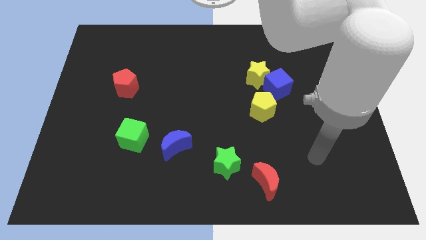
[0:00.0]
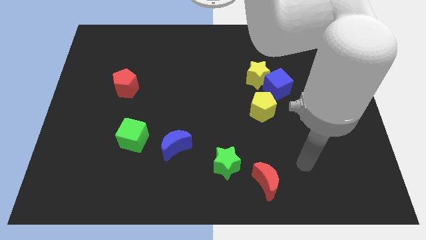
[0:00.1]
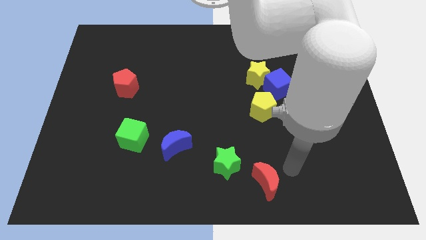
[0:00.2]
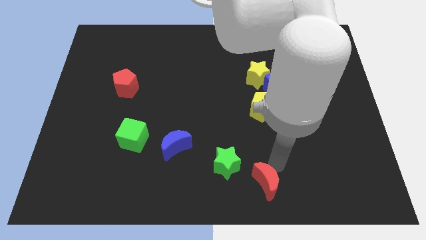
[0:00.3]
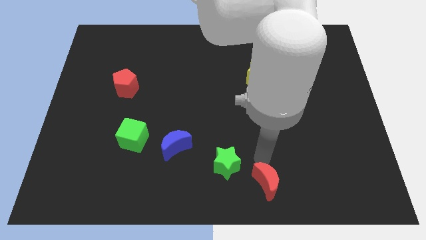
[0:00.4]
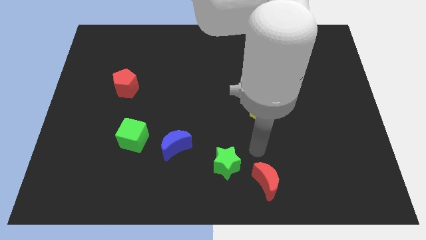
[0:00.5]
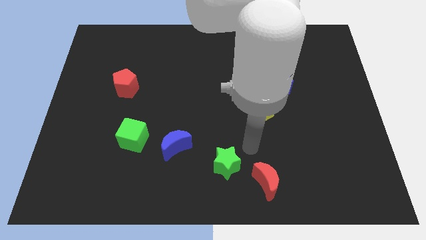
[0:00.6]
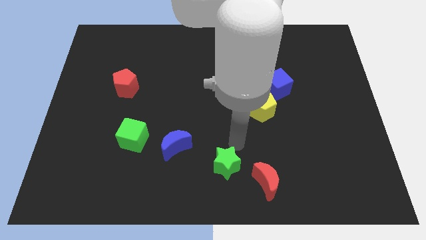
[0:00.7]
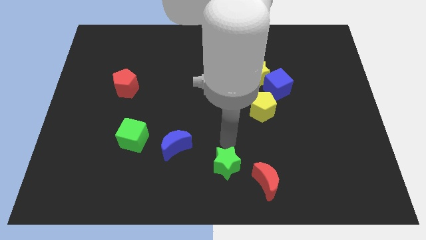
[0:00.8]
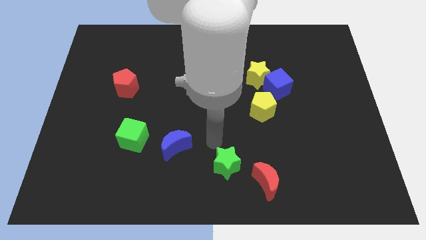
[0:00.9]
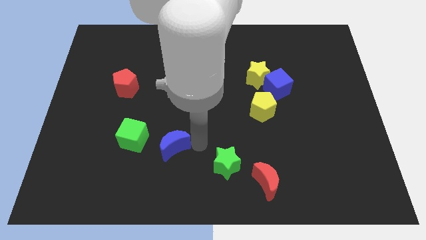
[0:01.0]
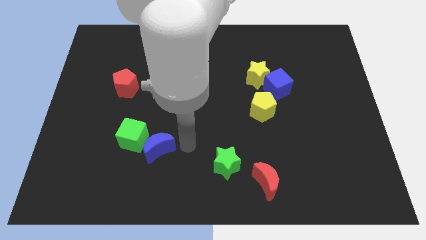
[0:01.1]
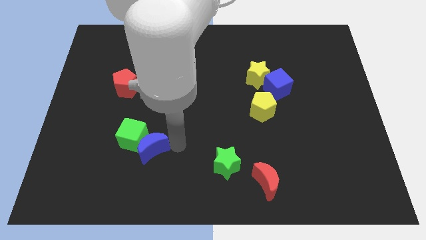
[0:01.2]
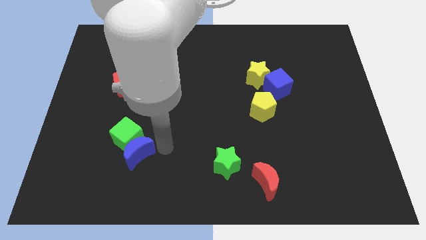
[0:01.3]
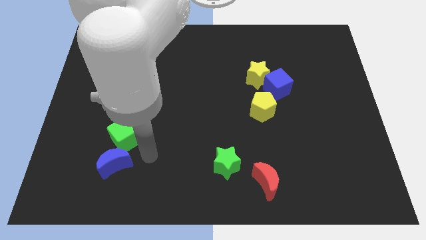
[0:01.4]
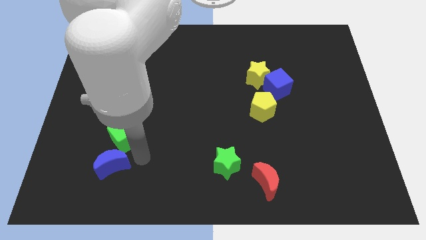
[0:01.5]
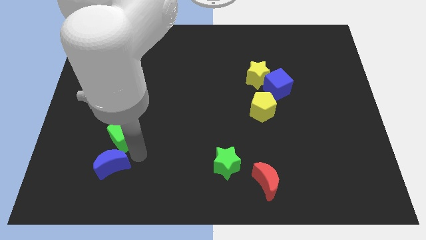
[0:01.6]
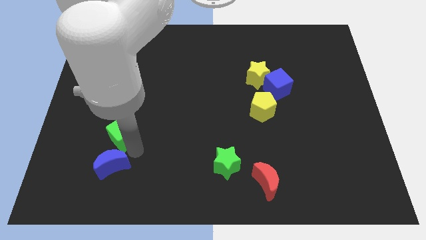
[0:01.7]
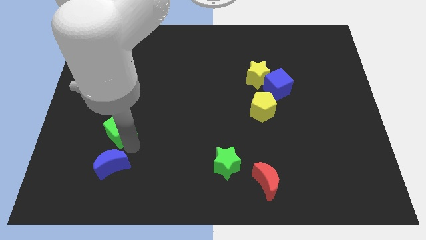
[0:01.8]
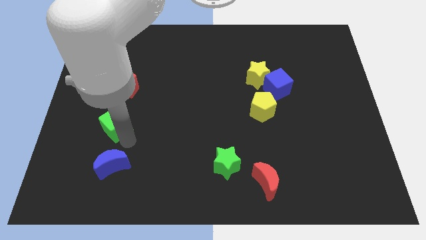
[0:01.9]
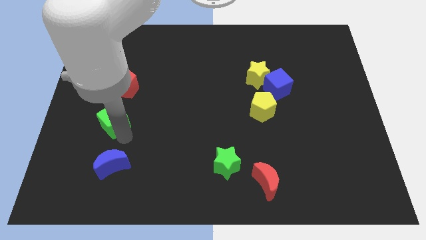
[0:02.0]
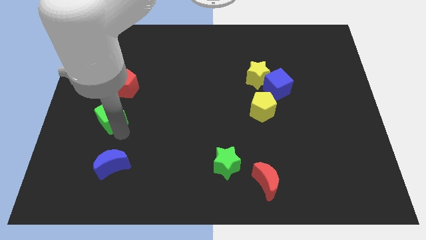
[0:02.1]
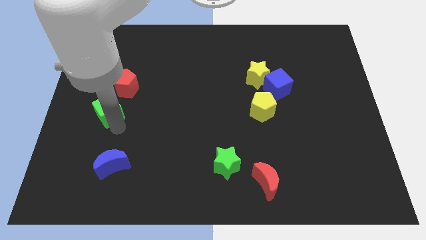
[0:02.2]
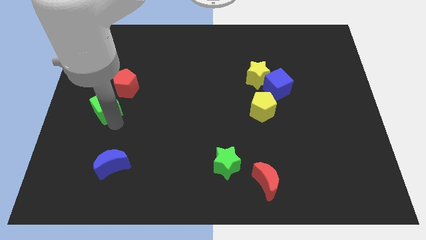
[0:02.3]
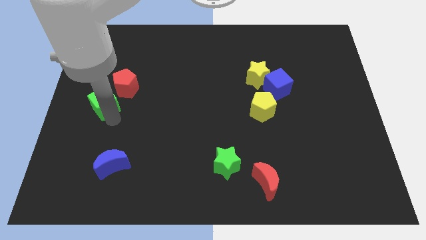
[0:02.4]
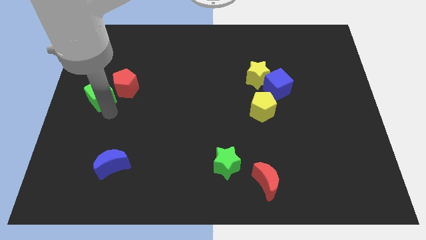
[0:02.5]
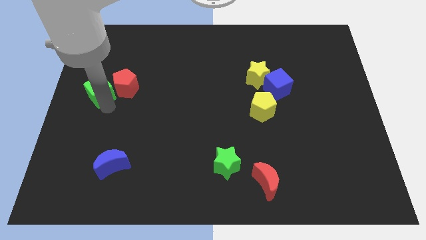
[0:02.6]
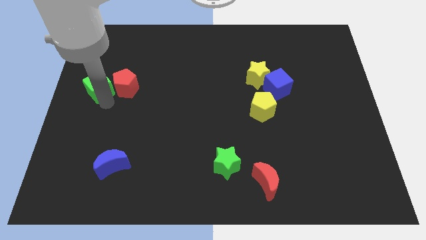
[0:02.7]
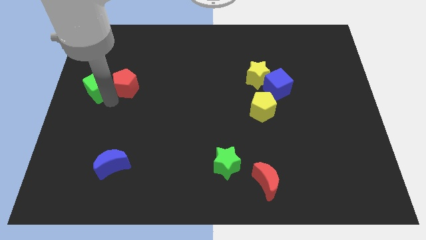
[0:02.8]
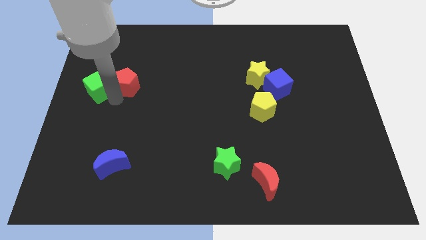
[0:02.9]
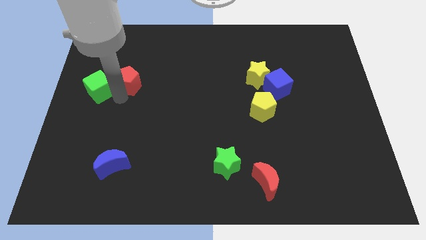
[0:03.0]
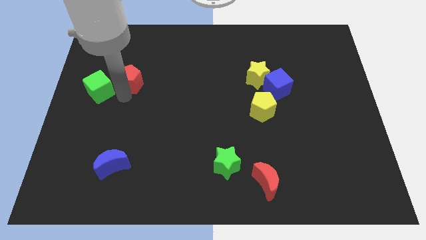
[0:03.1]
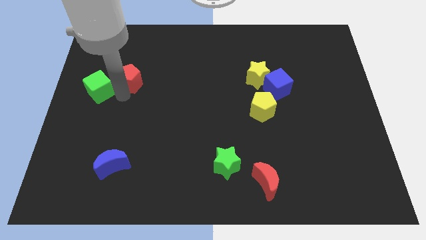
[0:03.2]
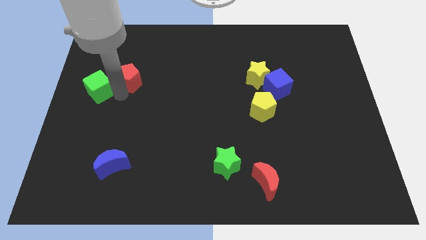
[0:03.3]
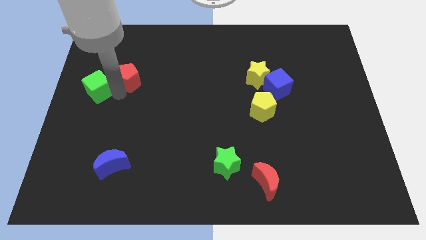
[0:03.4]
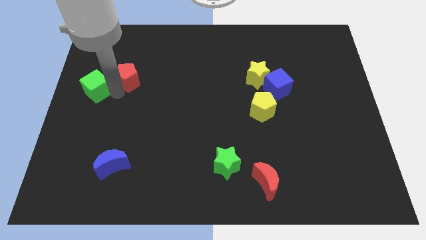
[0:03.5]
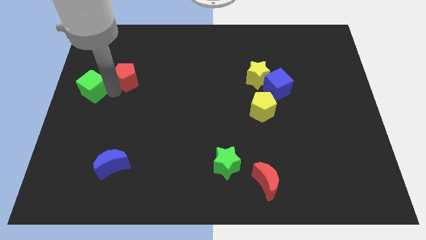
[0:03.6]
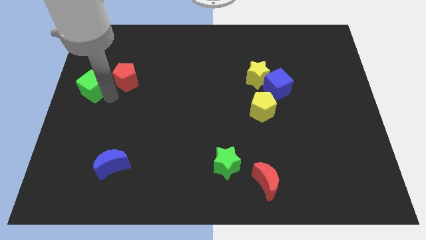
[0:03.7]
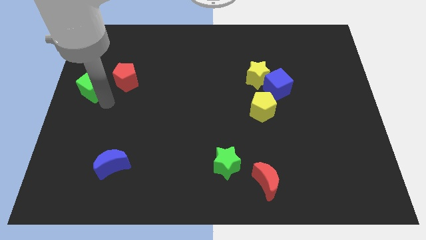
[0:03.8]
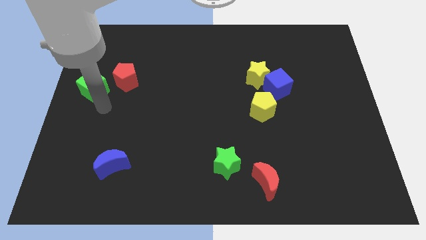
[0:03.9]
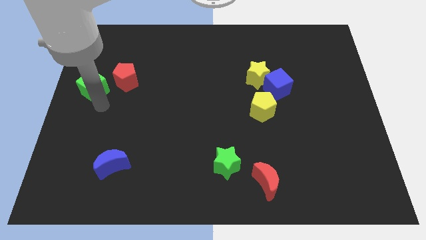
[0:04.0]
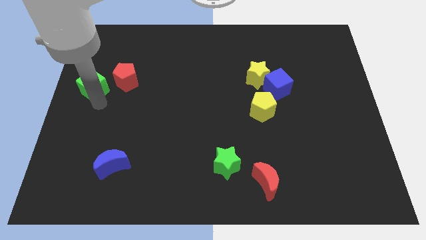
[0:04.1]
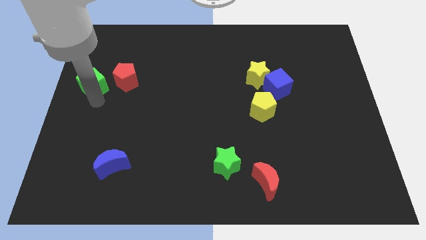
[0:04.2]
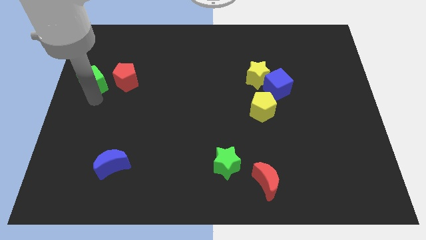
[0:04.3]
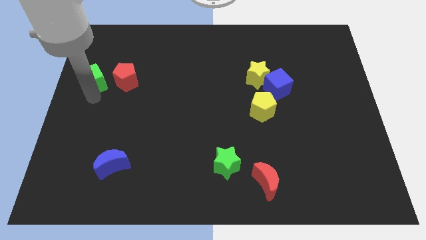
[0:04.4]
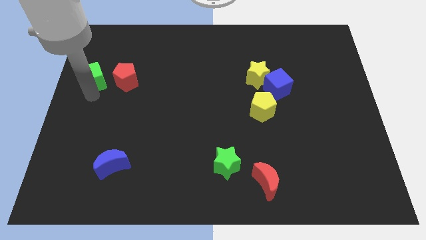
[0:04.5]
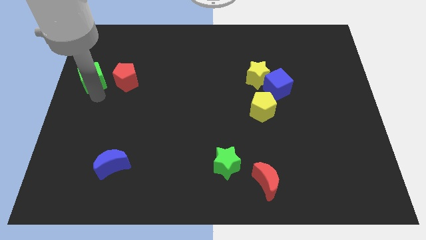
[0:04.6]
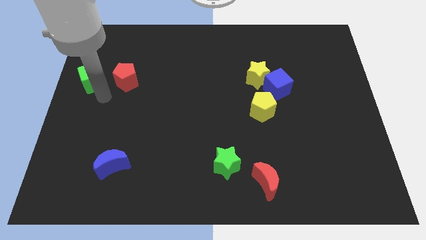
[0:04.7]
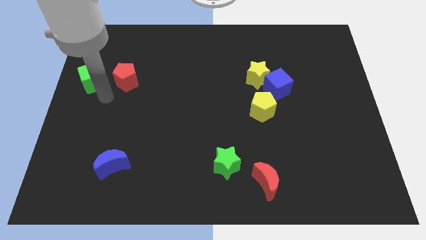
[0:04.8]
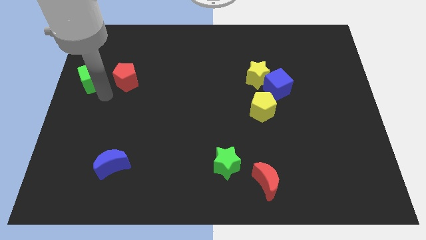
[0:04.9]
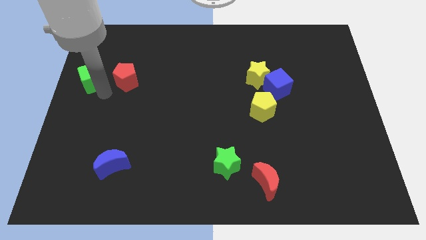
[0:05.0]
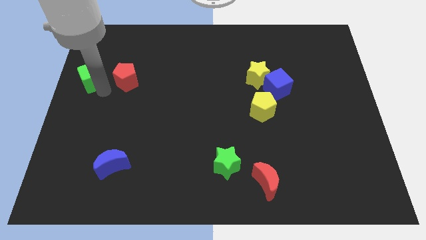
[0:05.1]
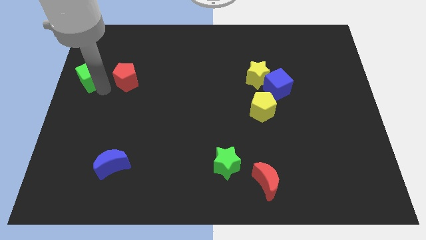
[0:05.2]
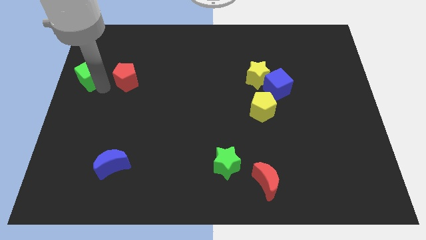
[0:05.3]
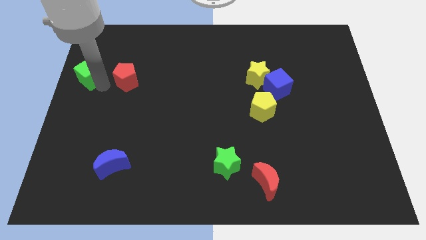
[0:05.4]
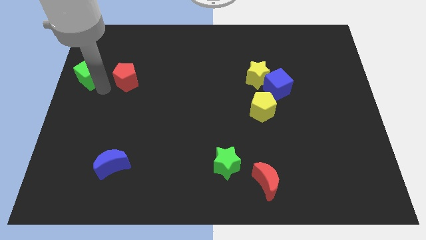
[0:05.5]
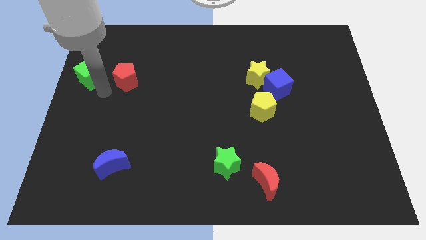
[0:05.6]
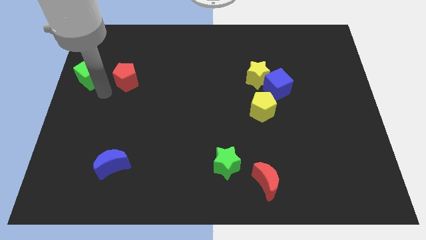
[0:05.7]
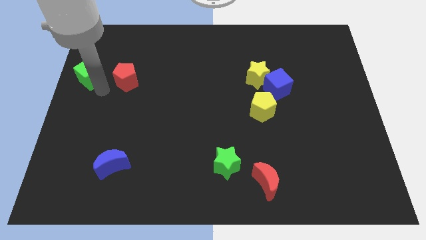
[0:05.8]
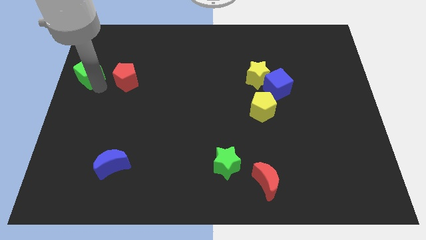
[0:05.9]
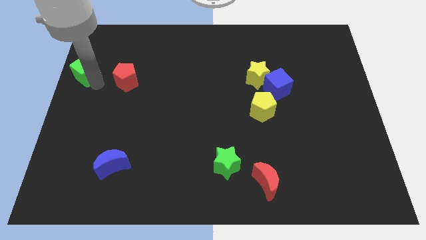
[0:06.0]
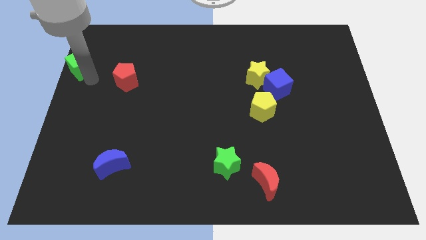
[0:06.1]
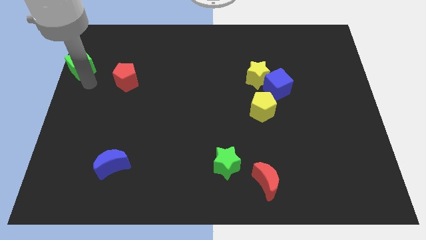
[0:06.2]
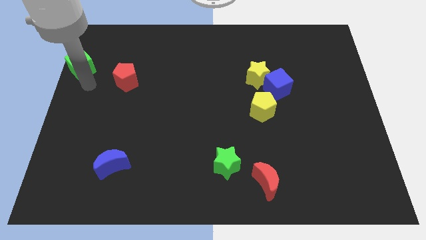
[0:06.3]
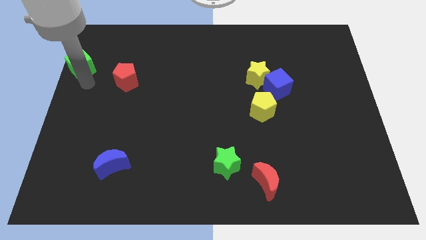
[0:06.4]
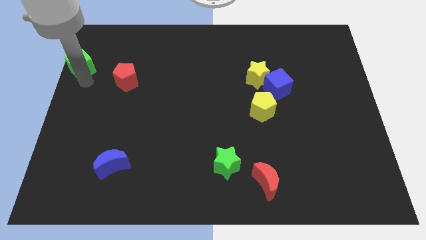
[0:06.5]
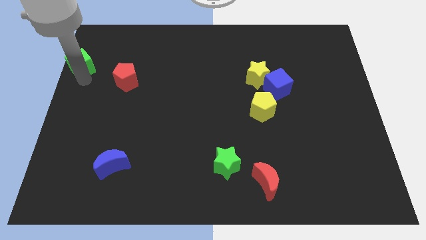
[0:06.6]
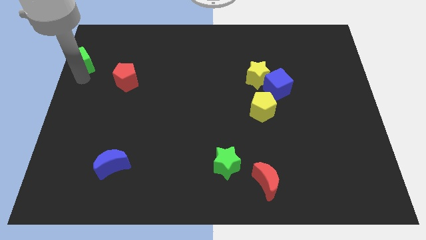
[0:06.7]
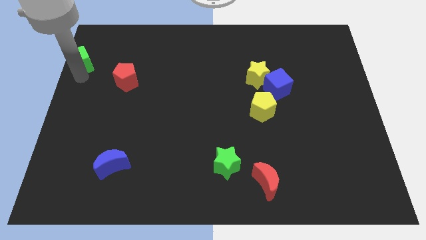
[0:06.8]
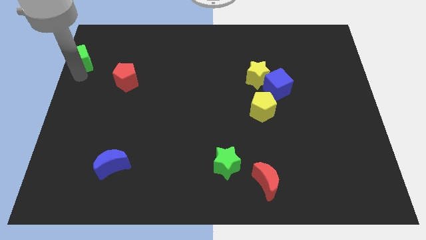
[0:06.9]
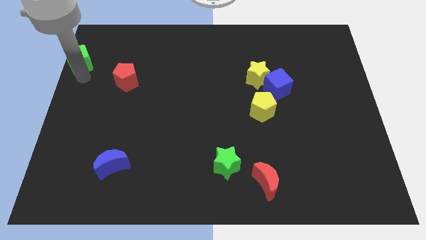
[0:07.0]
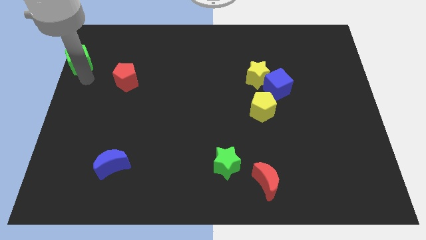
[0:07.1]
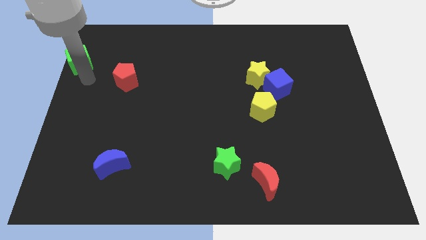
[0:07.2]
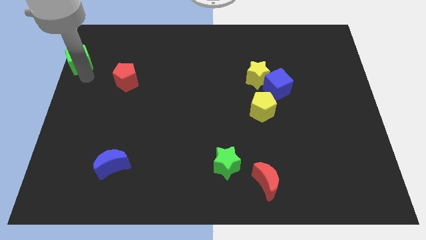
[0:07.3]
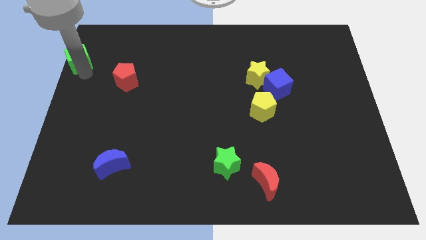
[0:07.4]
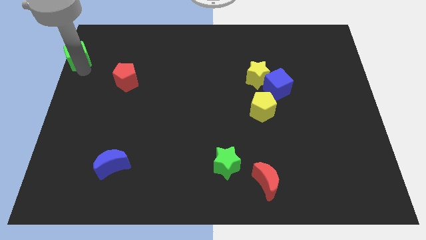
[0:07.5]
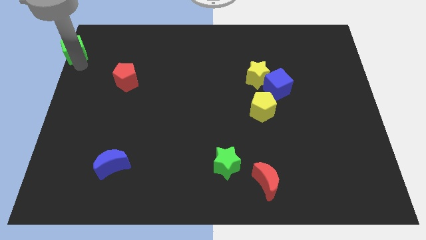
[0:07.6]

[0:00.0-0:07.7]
push the green cube to the top left corner
